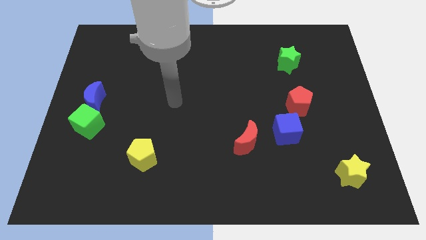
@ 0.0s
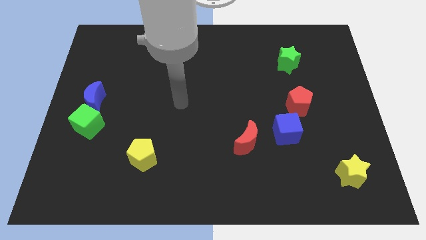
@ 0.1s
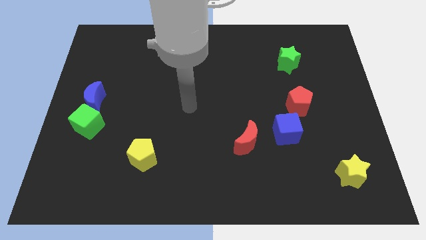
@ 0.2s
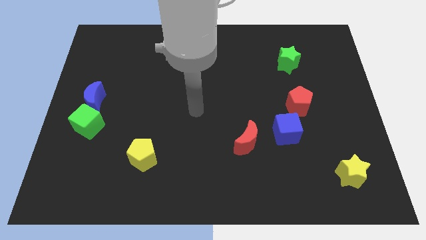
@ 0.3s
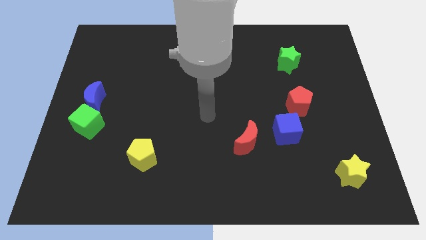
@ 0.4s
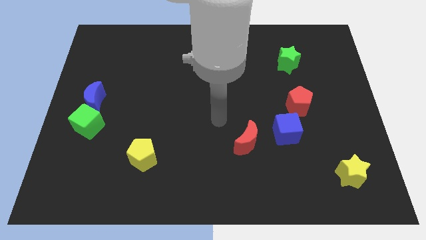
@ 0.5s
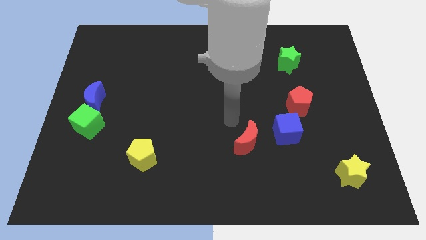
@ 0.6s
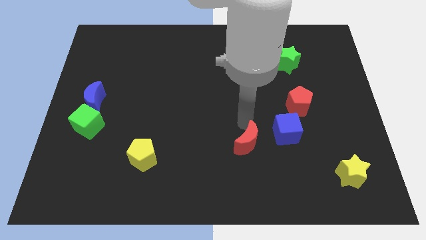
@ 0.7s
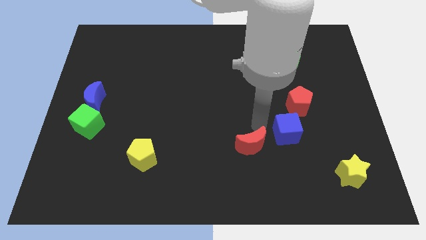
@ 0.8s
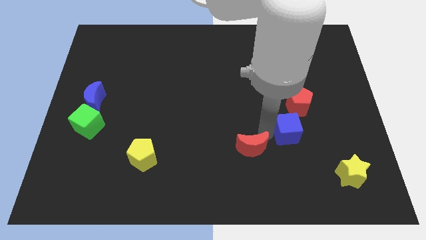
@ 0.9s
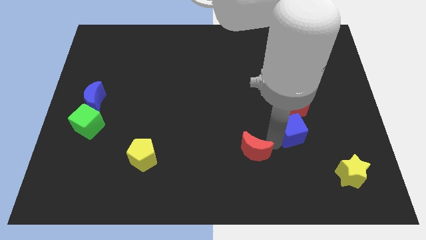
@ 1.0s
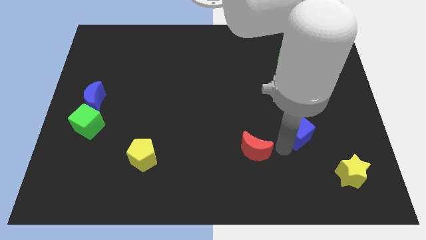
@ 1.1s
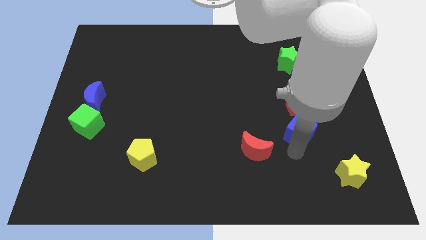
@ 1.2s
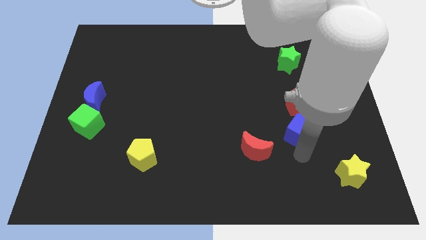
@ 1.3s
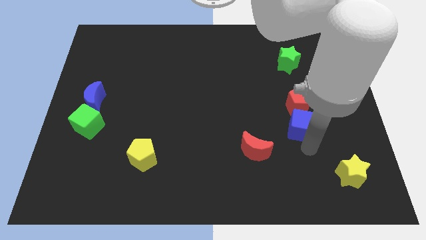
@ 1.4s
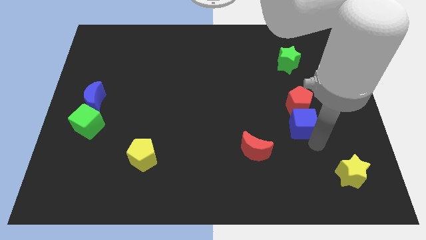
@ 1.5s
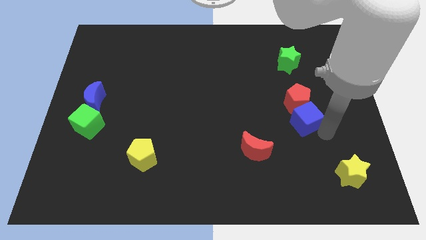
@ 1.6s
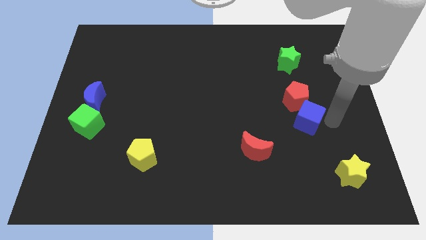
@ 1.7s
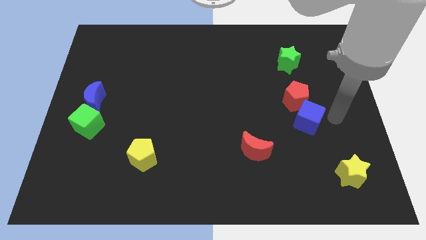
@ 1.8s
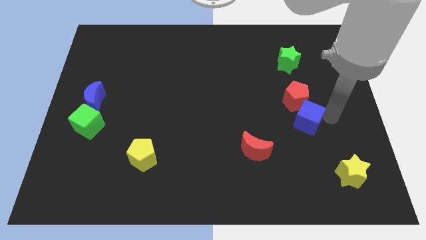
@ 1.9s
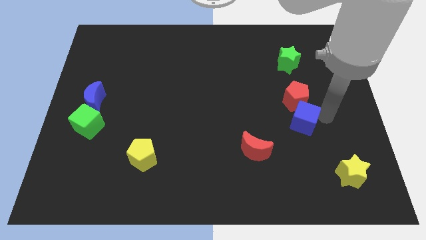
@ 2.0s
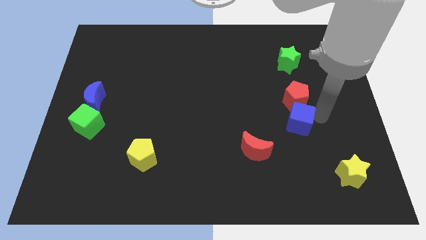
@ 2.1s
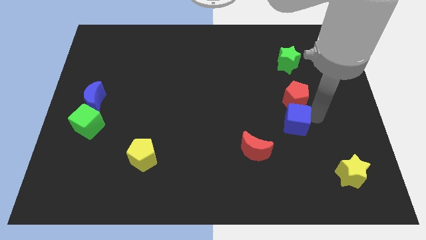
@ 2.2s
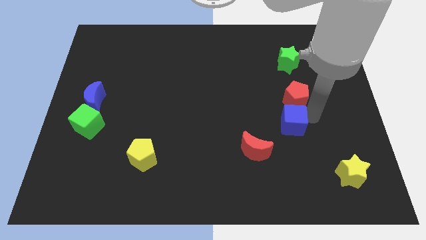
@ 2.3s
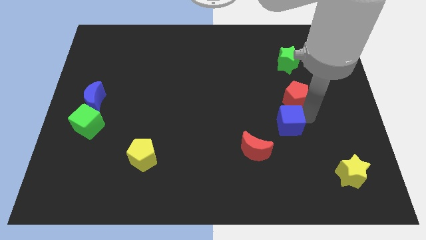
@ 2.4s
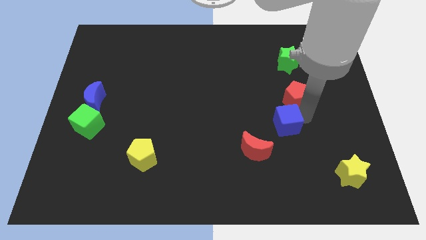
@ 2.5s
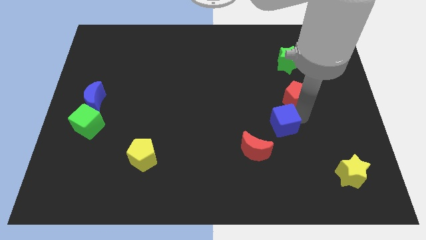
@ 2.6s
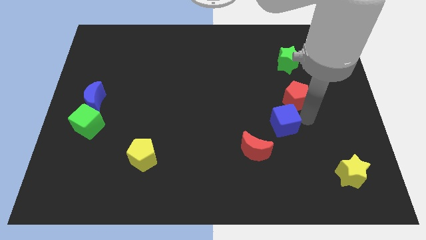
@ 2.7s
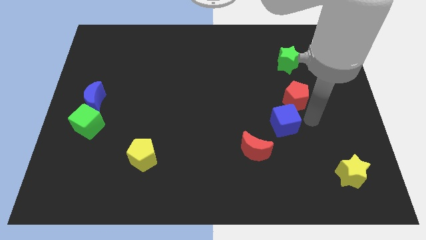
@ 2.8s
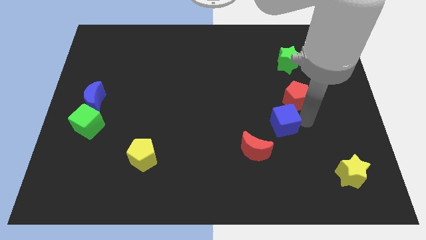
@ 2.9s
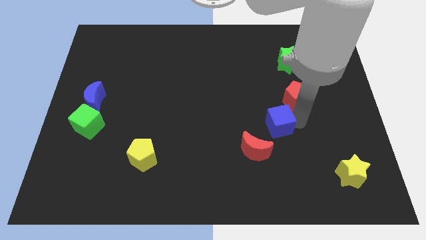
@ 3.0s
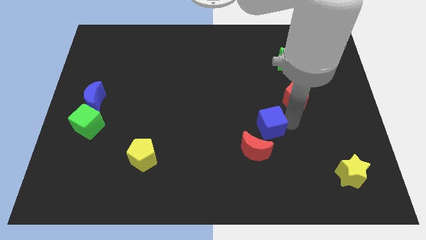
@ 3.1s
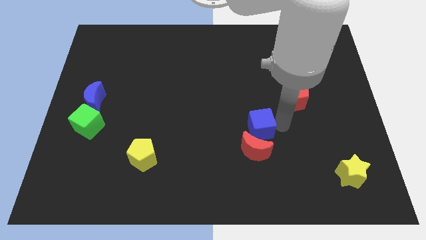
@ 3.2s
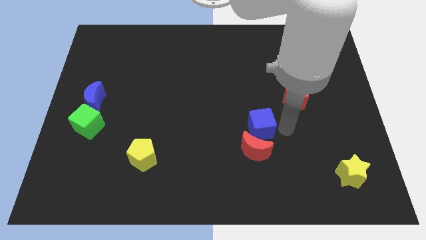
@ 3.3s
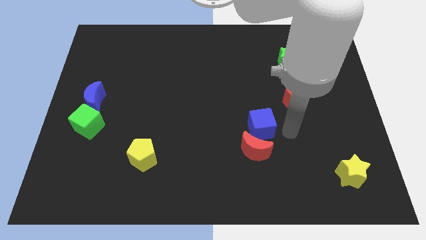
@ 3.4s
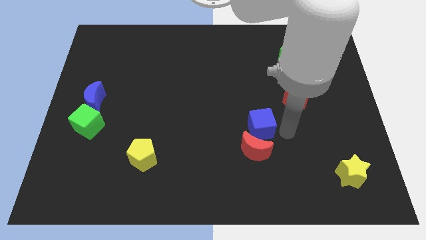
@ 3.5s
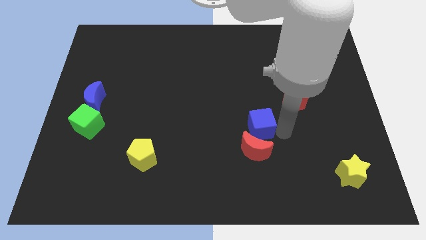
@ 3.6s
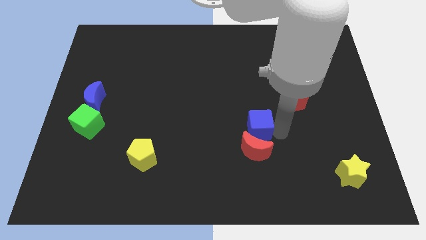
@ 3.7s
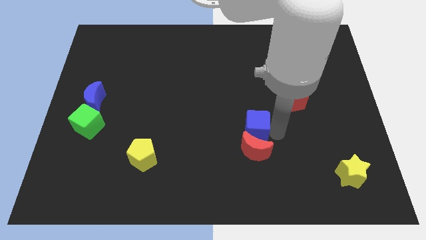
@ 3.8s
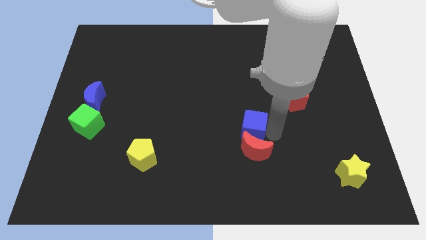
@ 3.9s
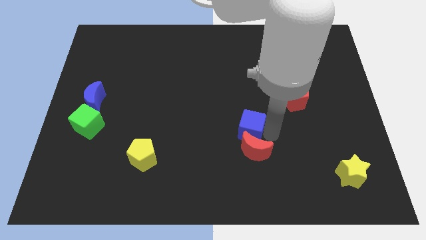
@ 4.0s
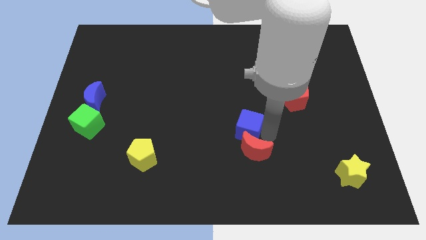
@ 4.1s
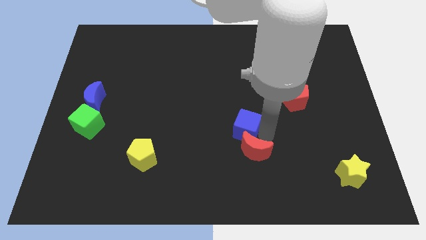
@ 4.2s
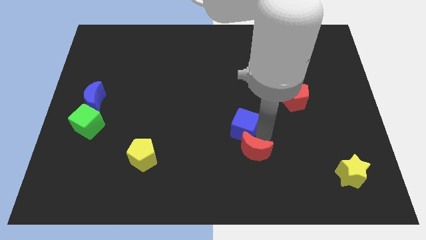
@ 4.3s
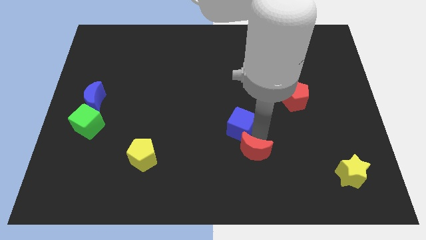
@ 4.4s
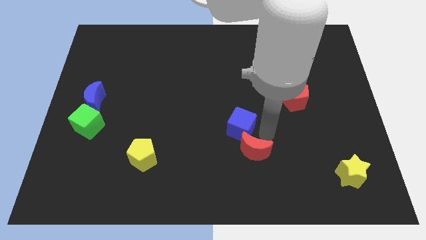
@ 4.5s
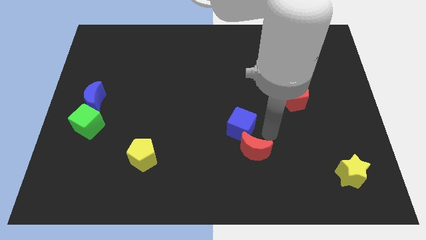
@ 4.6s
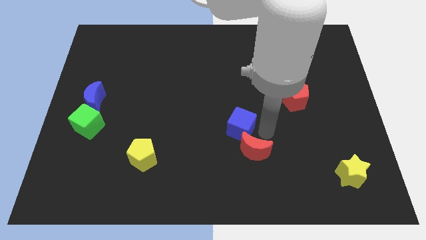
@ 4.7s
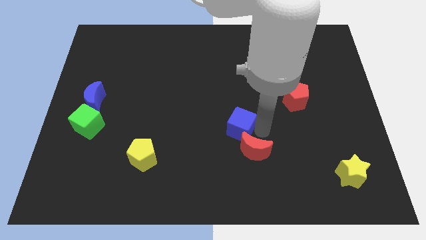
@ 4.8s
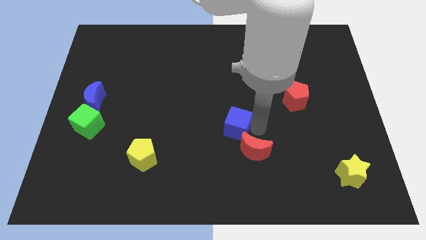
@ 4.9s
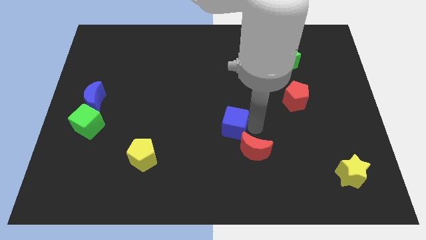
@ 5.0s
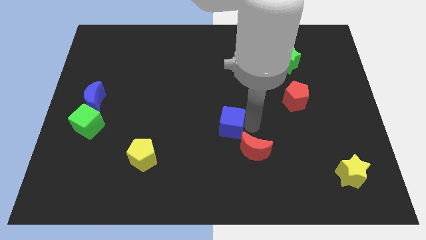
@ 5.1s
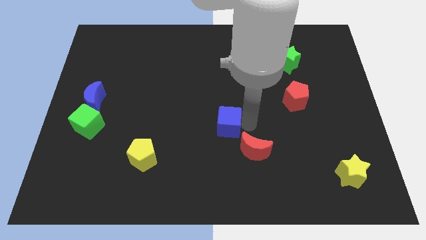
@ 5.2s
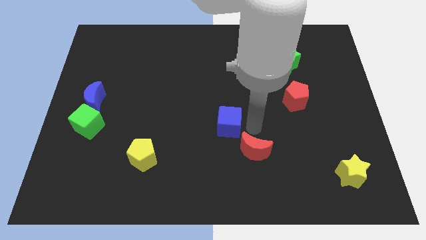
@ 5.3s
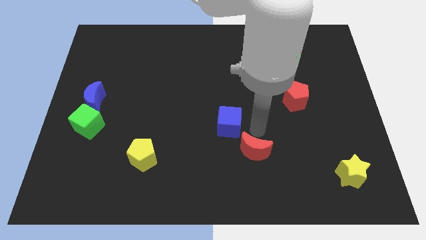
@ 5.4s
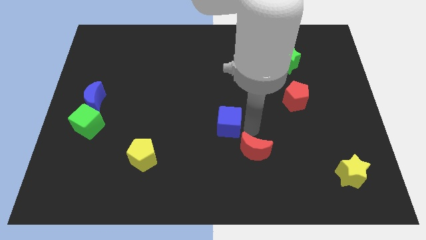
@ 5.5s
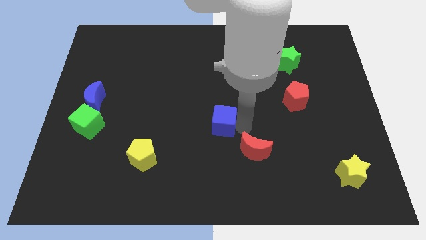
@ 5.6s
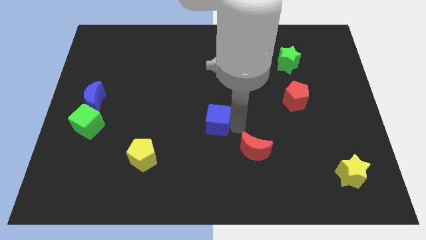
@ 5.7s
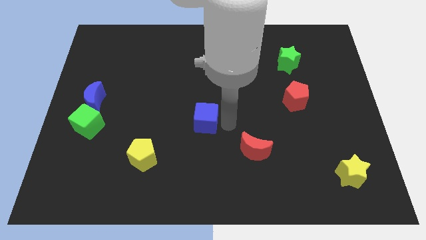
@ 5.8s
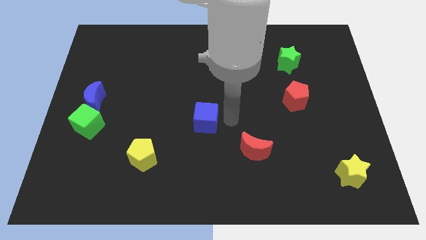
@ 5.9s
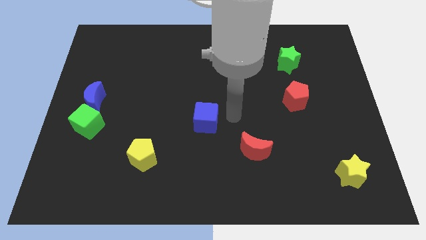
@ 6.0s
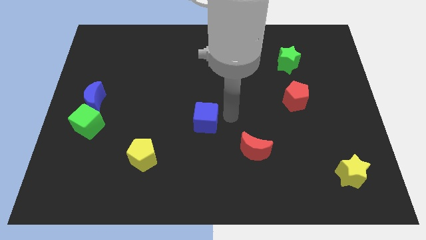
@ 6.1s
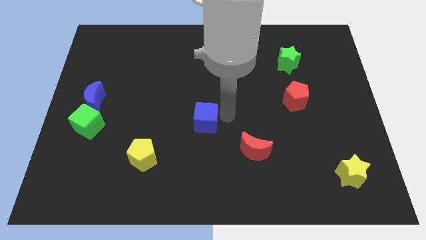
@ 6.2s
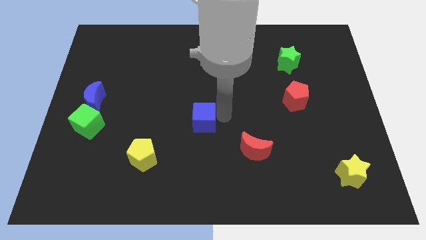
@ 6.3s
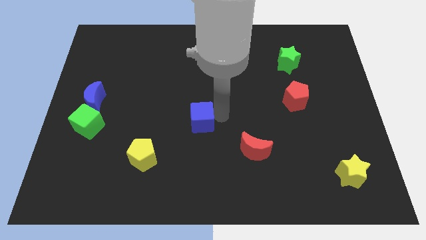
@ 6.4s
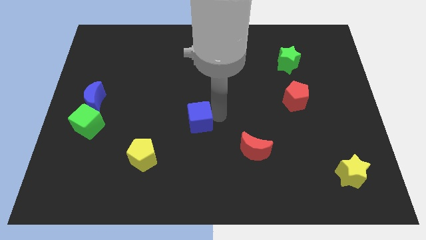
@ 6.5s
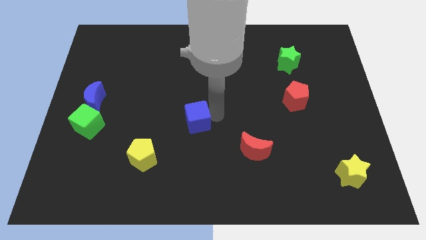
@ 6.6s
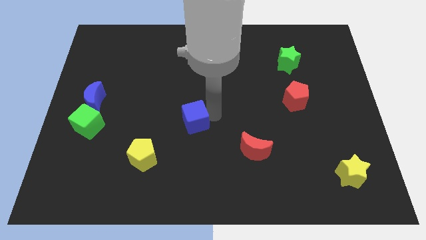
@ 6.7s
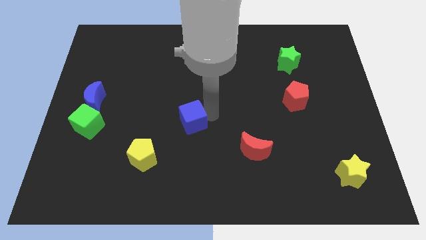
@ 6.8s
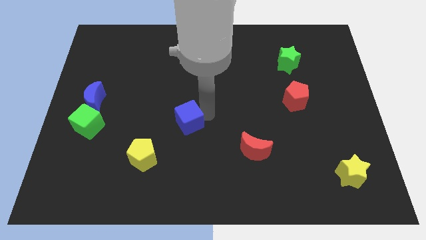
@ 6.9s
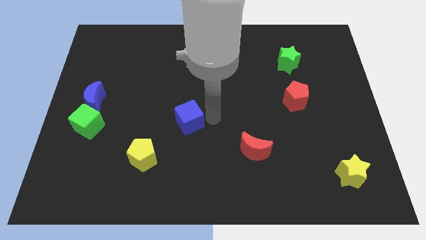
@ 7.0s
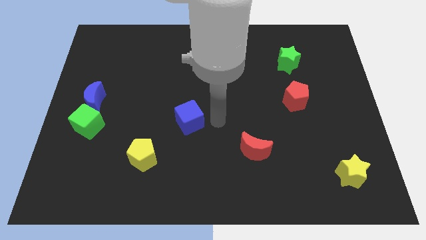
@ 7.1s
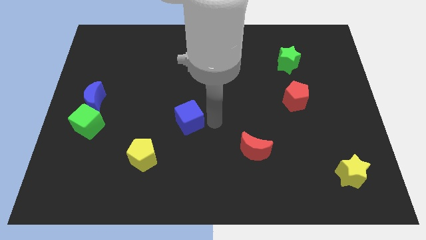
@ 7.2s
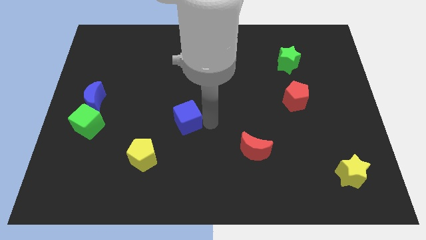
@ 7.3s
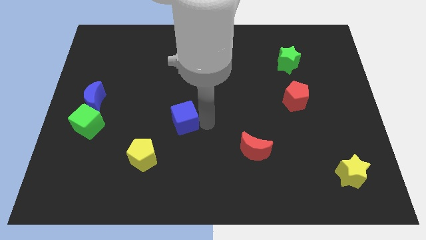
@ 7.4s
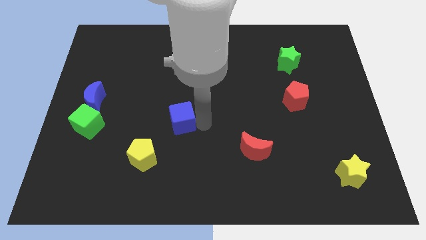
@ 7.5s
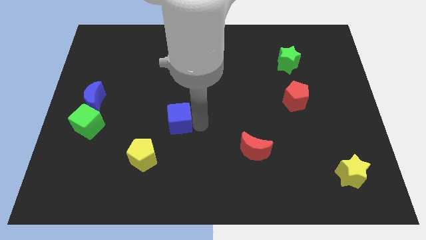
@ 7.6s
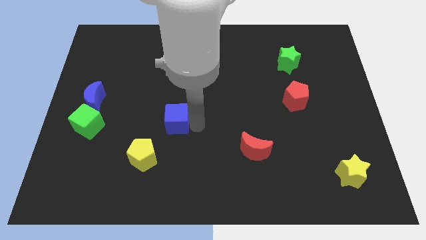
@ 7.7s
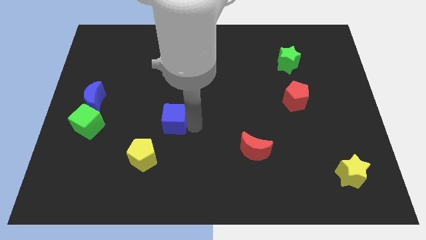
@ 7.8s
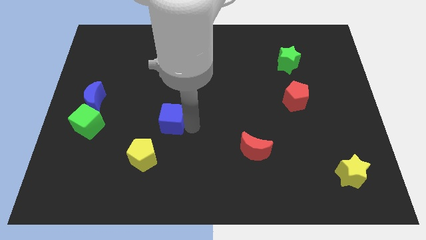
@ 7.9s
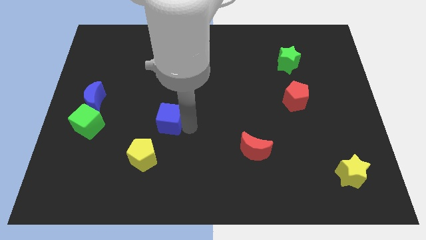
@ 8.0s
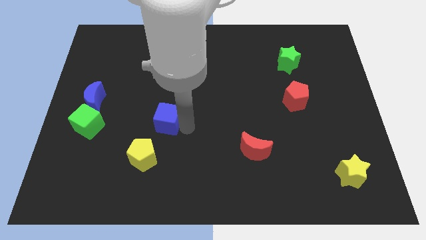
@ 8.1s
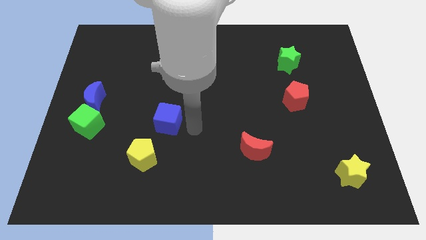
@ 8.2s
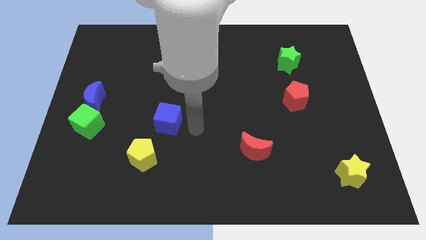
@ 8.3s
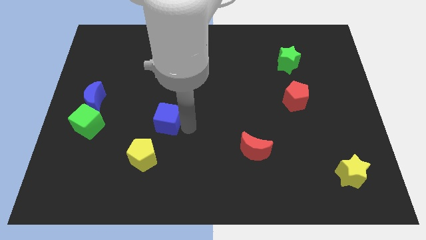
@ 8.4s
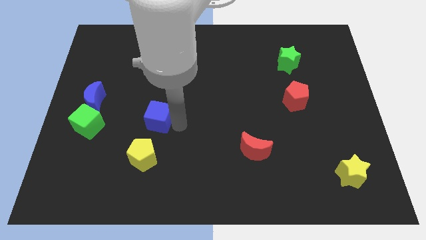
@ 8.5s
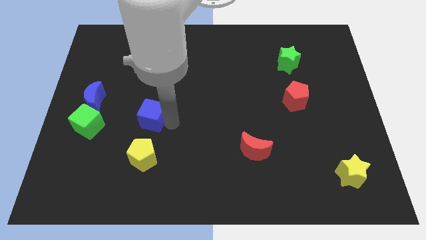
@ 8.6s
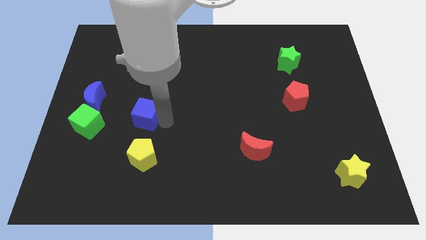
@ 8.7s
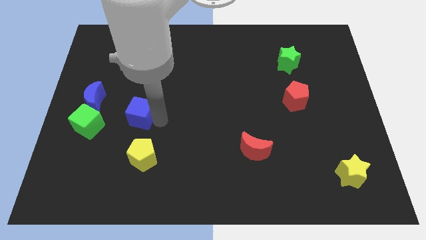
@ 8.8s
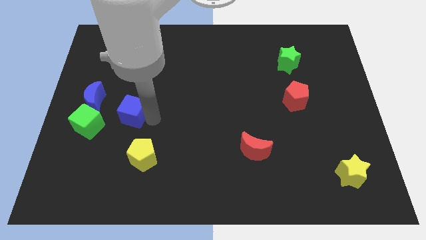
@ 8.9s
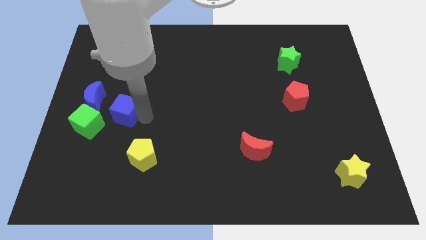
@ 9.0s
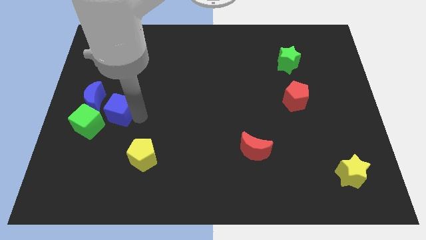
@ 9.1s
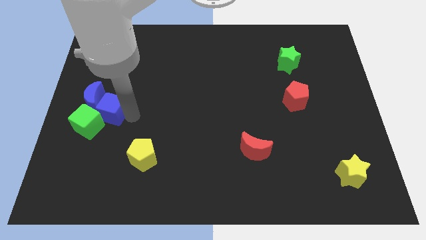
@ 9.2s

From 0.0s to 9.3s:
move the blue cube towards the blue moon
